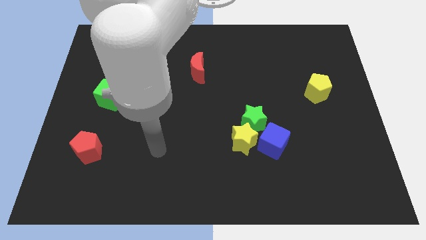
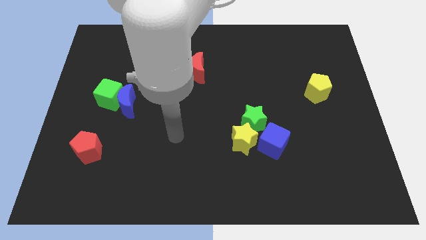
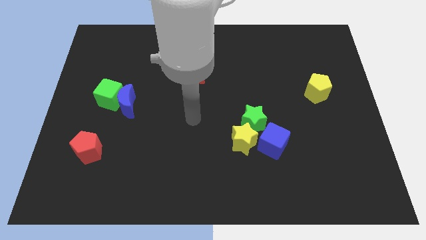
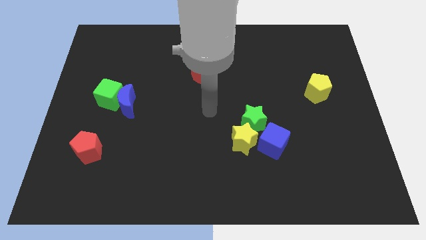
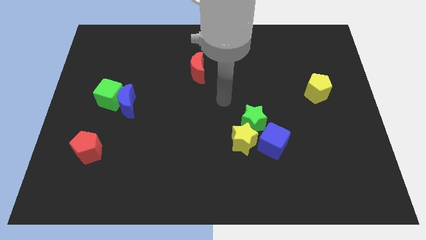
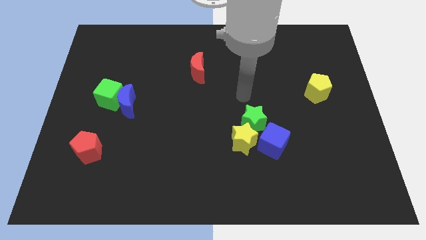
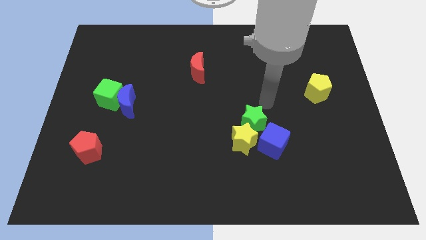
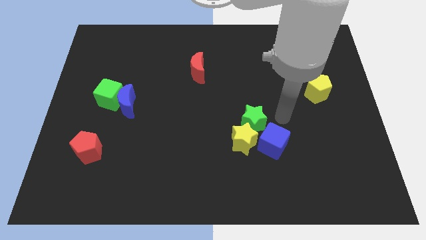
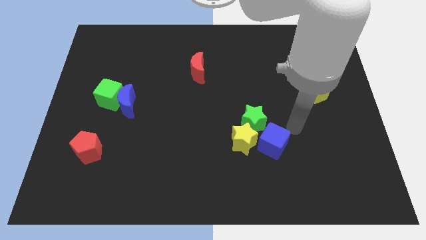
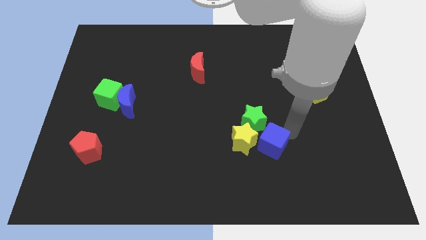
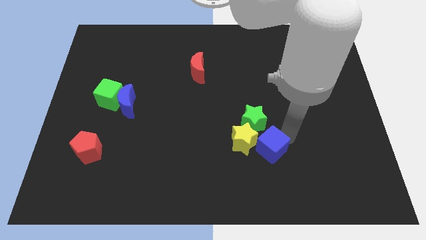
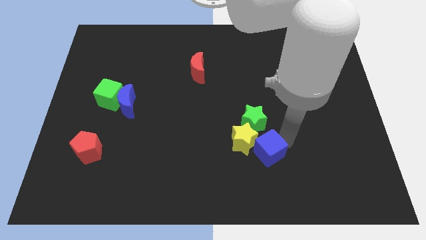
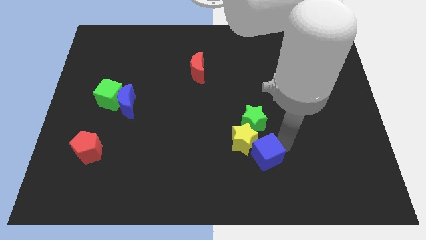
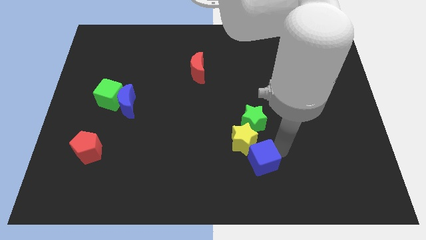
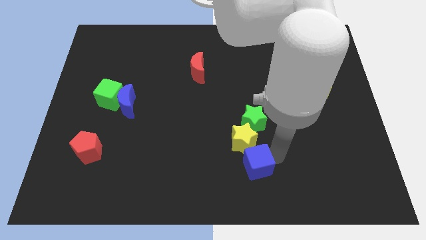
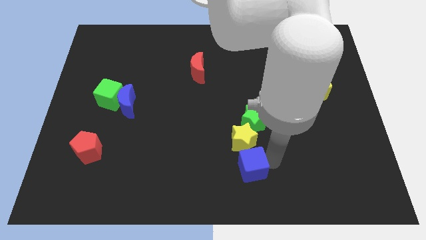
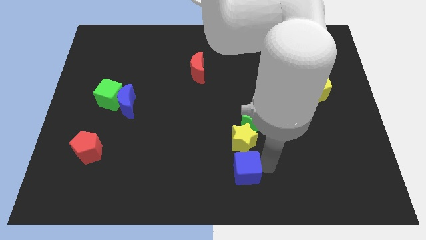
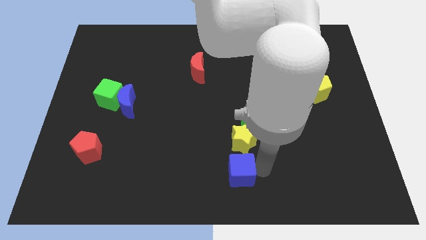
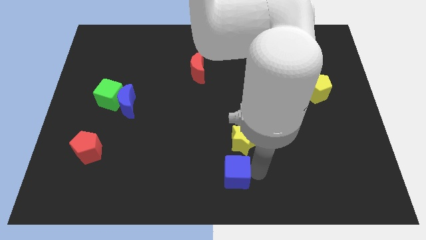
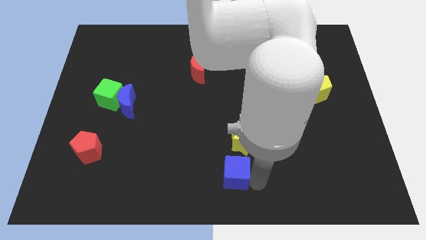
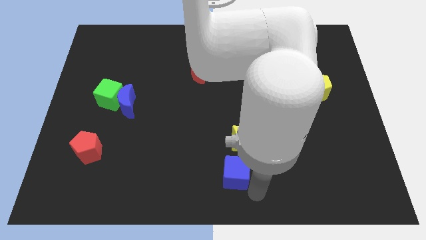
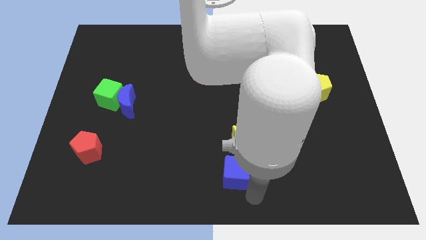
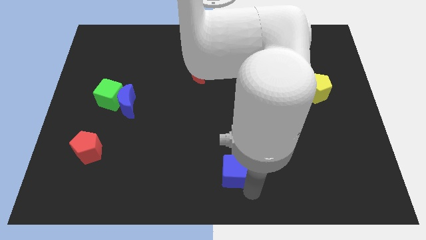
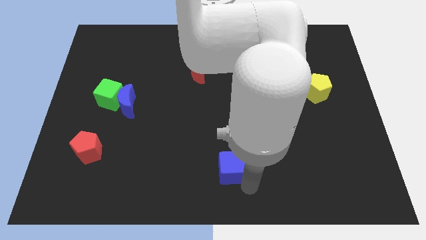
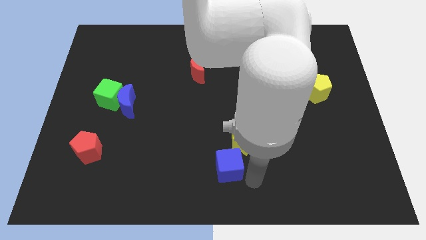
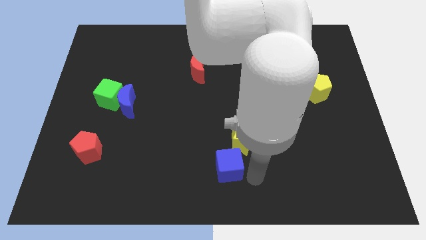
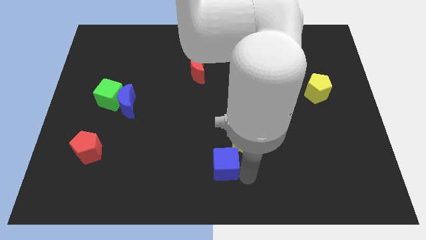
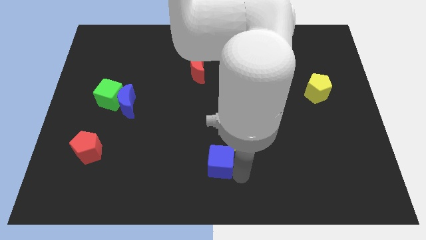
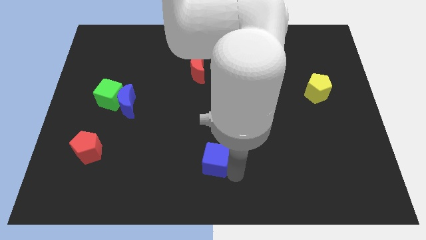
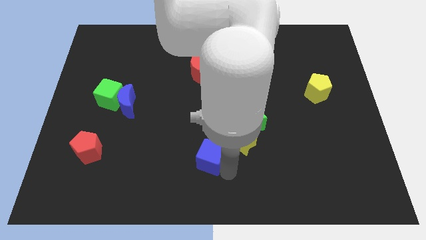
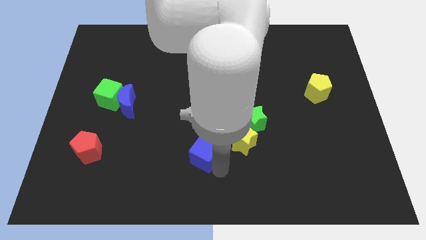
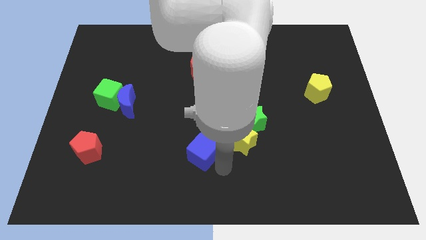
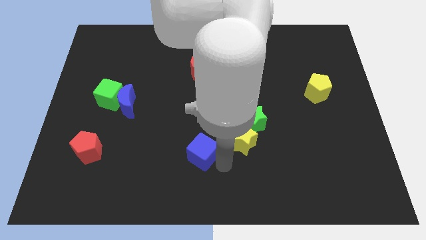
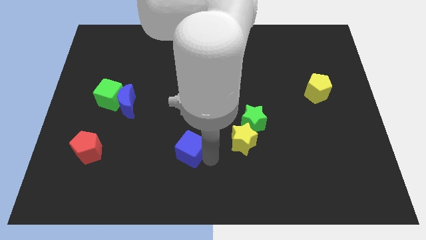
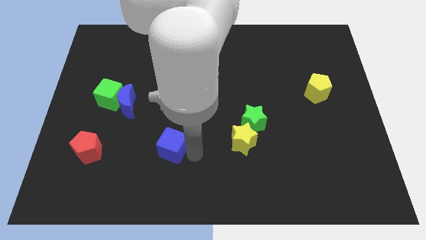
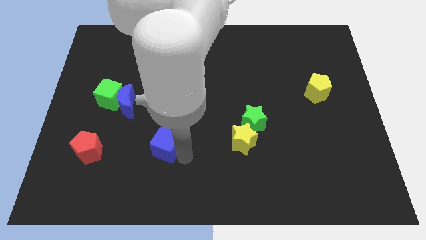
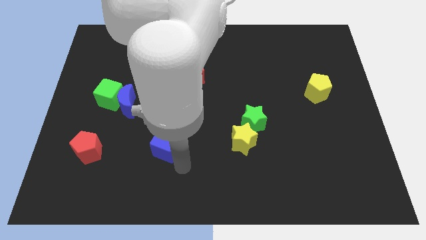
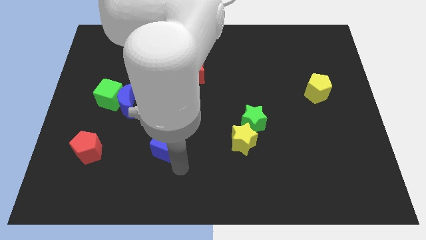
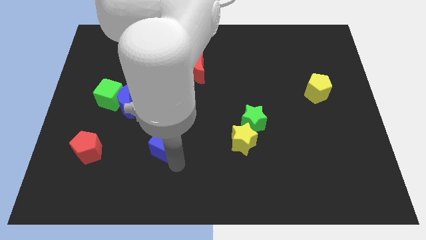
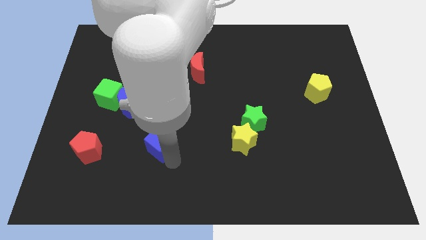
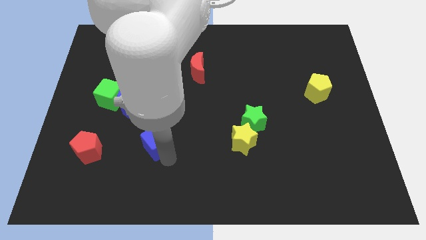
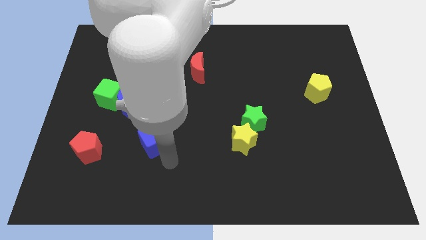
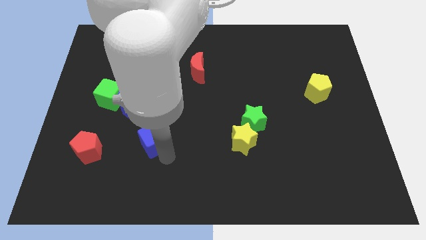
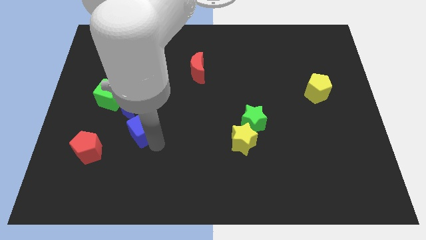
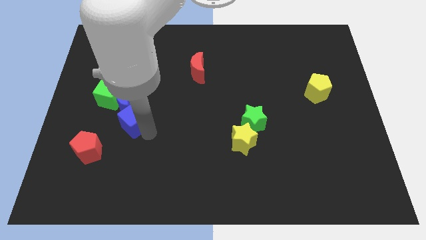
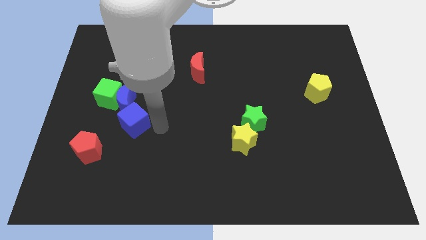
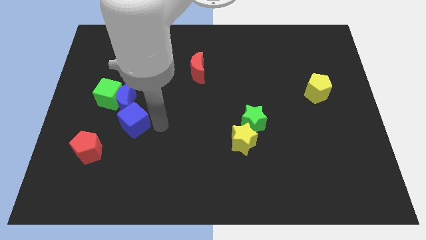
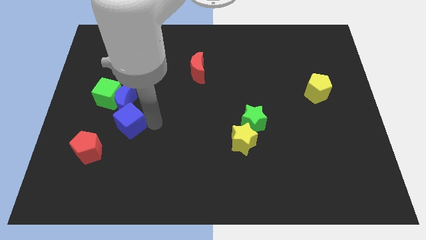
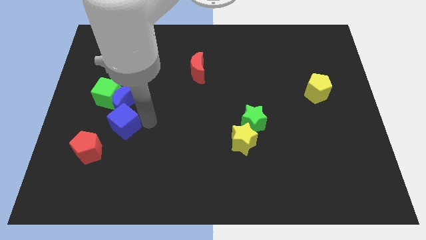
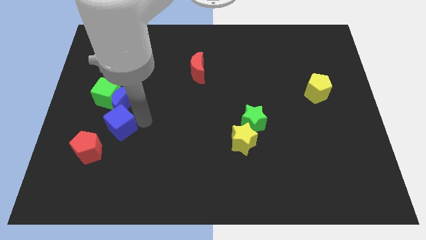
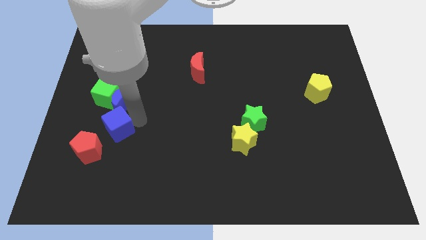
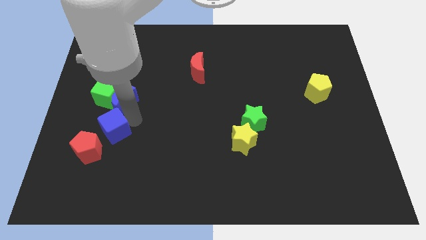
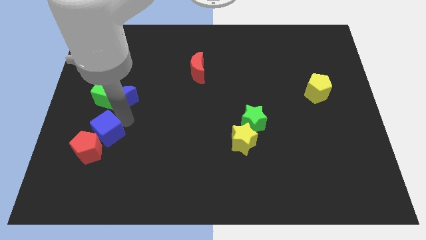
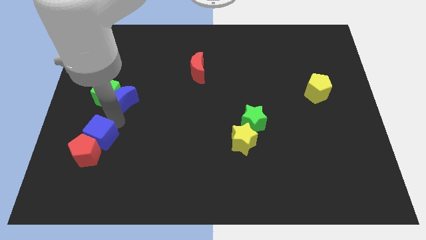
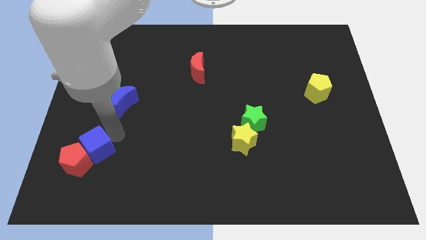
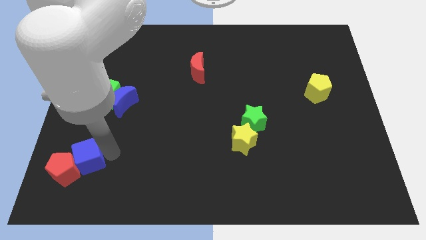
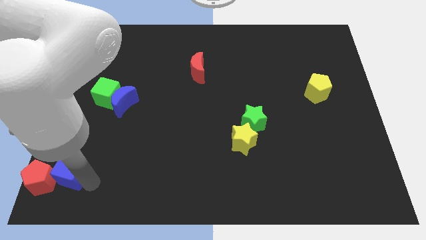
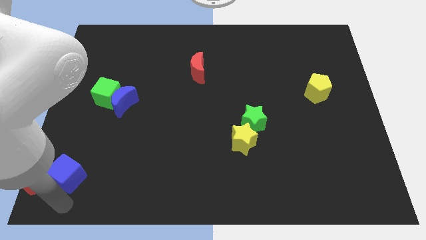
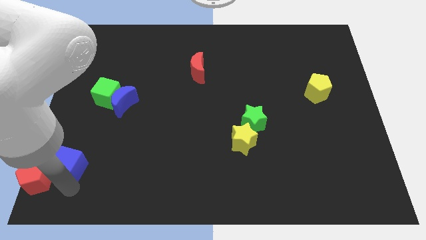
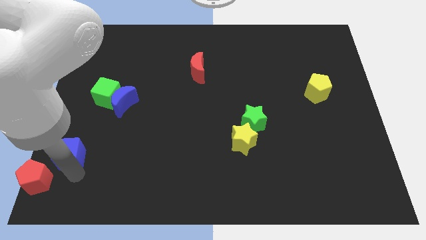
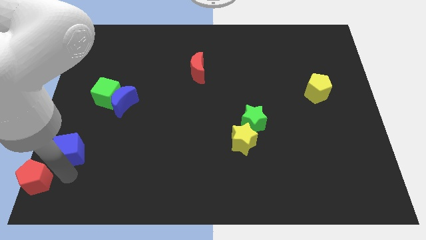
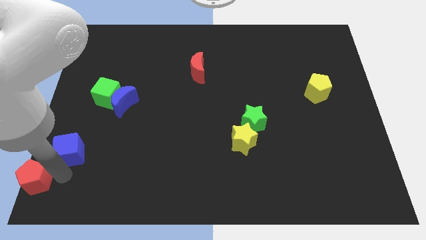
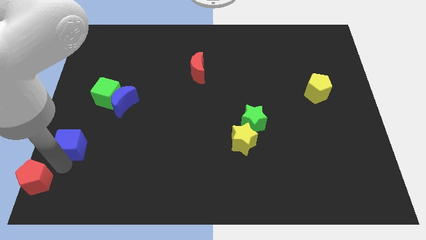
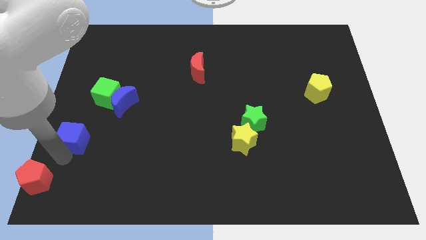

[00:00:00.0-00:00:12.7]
move the blue cube to the left side
